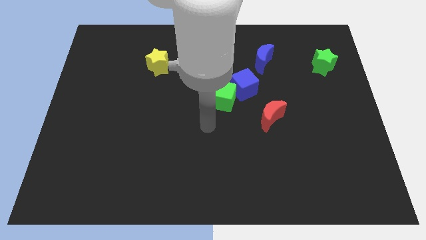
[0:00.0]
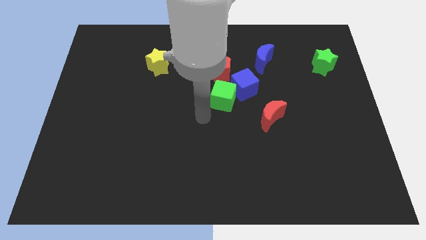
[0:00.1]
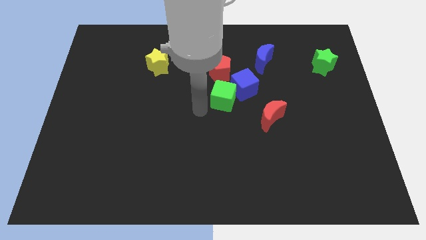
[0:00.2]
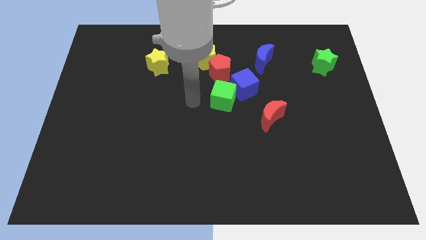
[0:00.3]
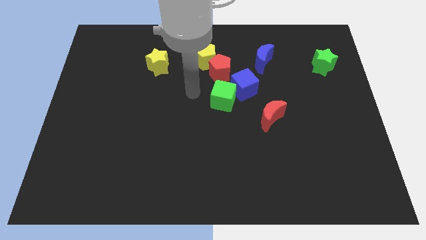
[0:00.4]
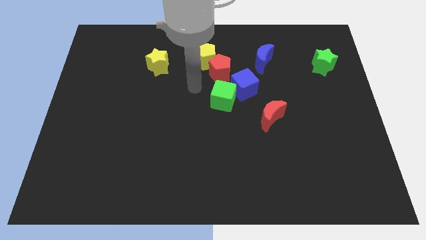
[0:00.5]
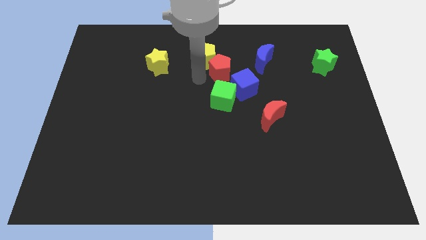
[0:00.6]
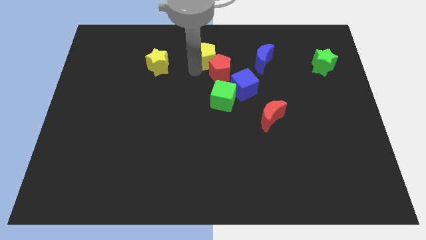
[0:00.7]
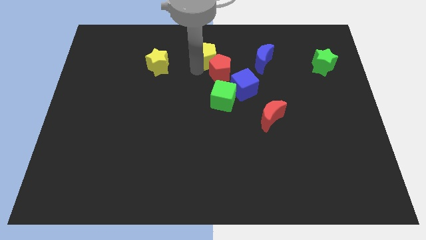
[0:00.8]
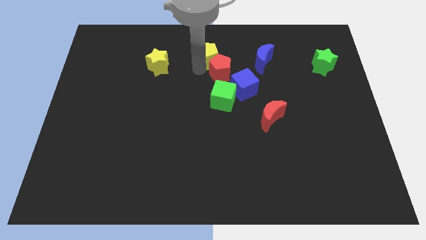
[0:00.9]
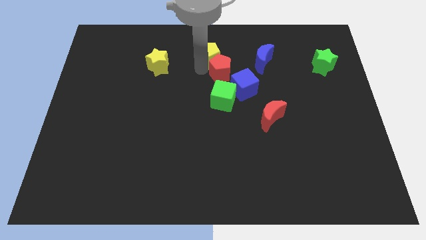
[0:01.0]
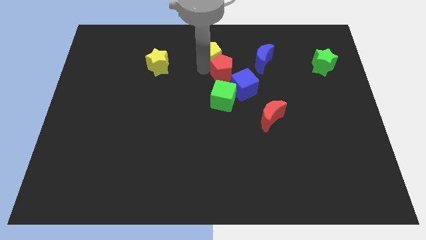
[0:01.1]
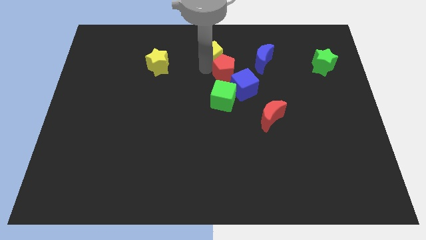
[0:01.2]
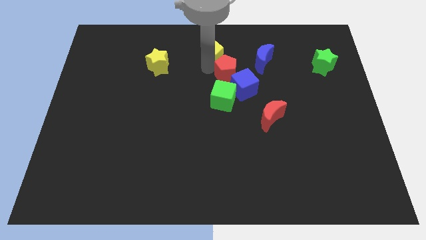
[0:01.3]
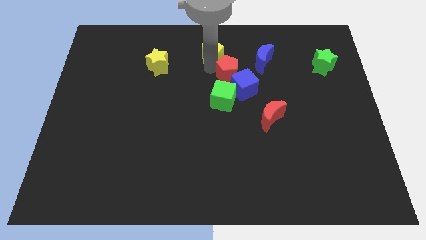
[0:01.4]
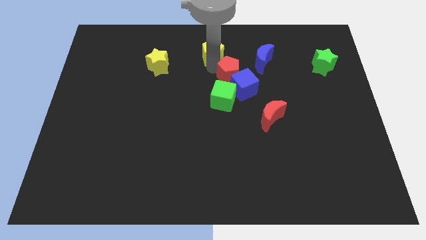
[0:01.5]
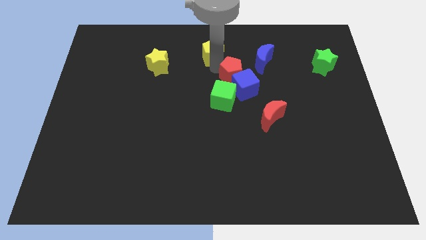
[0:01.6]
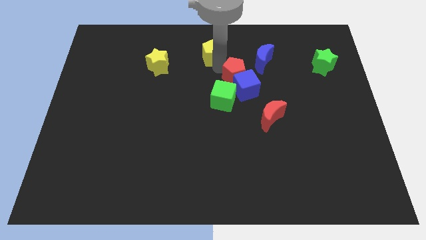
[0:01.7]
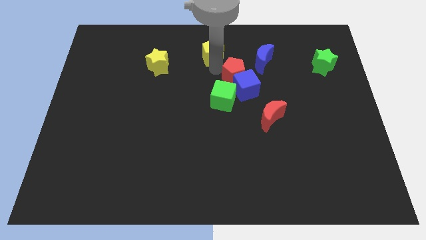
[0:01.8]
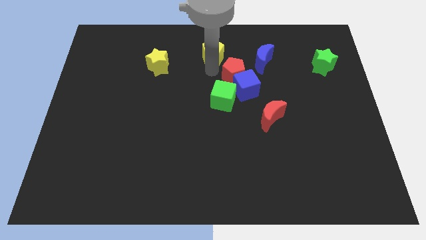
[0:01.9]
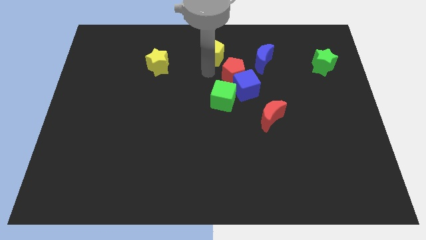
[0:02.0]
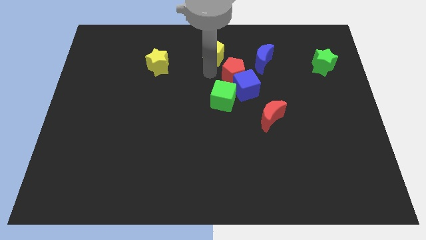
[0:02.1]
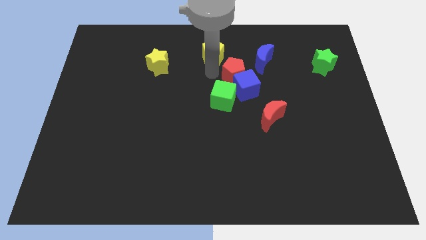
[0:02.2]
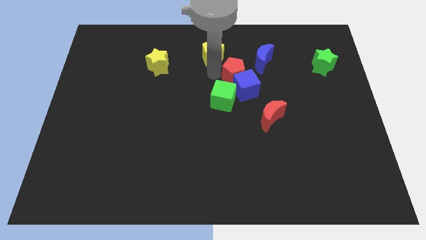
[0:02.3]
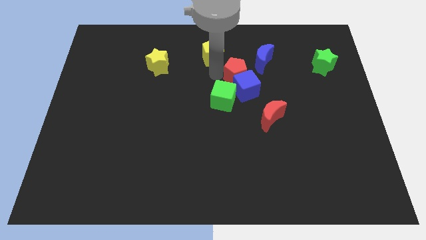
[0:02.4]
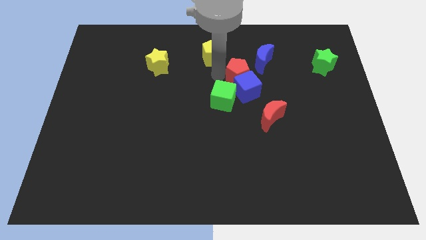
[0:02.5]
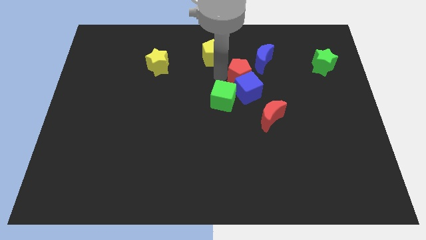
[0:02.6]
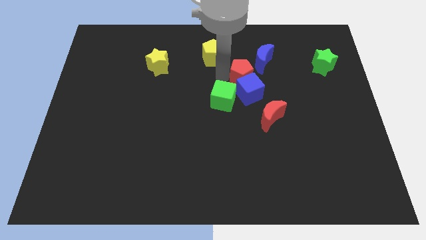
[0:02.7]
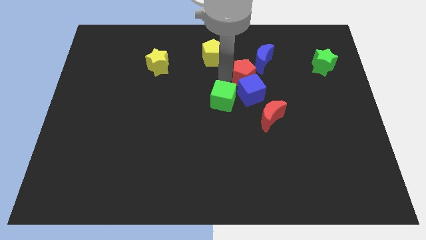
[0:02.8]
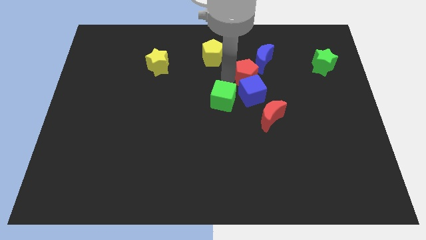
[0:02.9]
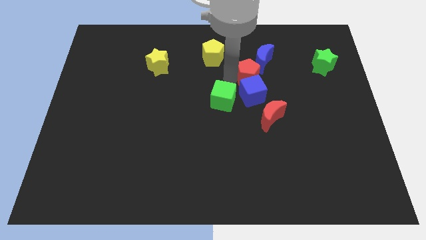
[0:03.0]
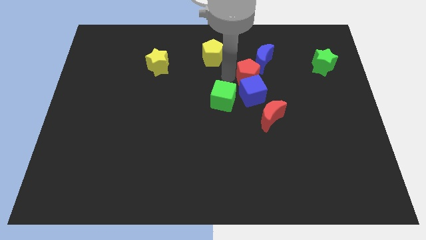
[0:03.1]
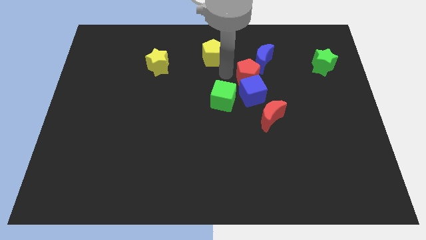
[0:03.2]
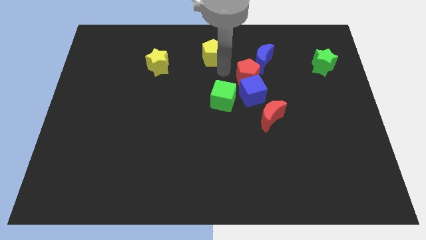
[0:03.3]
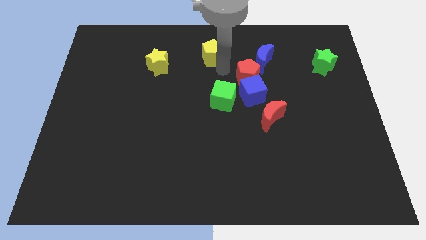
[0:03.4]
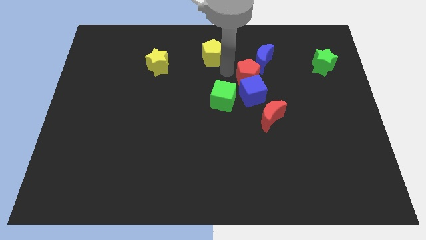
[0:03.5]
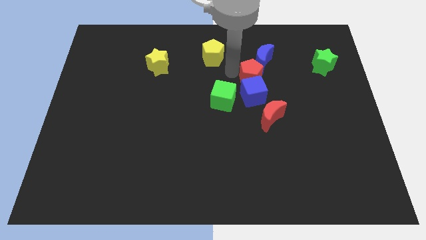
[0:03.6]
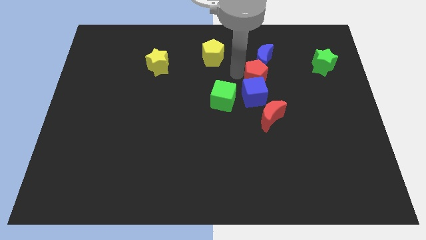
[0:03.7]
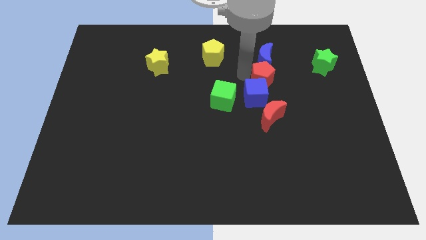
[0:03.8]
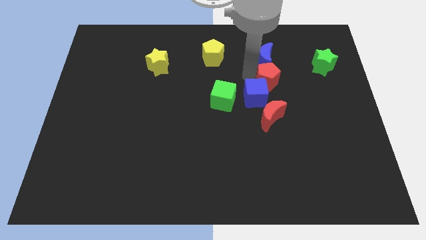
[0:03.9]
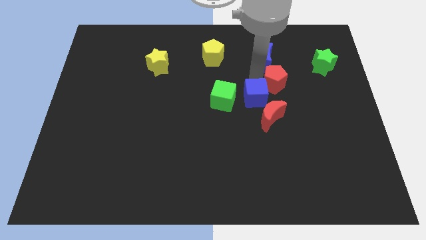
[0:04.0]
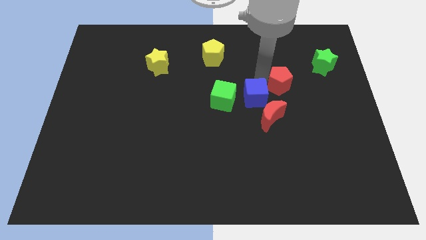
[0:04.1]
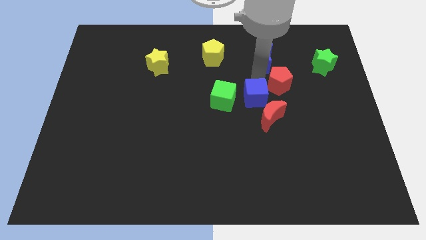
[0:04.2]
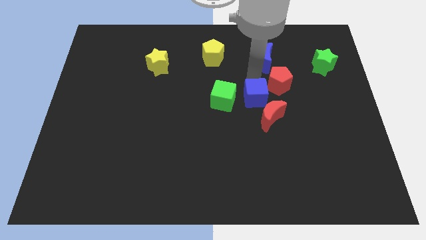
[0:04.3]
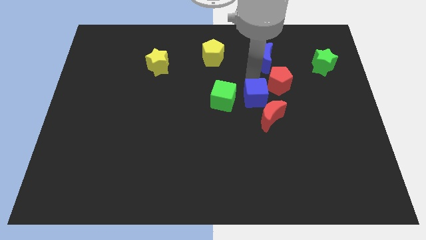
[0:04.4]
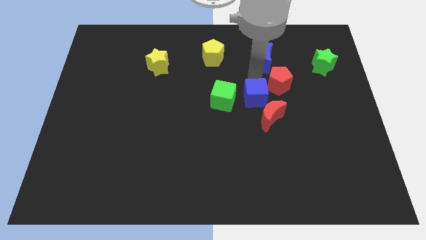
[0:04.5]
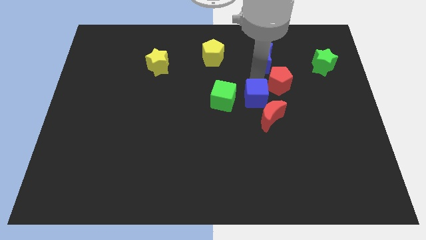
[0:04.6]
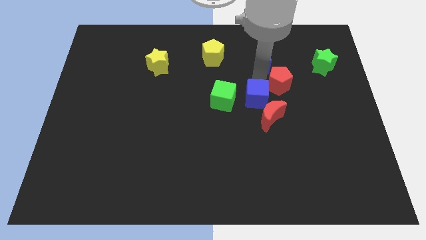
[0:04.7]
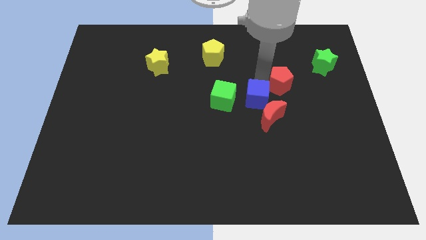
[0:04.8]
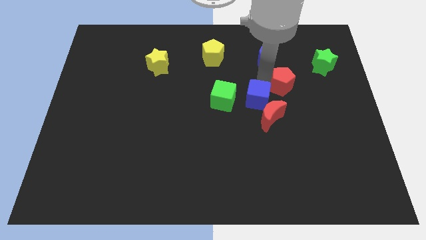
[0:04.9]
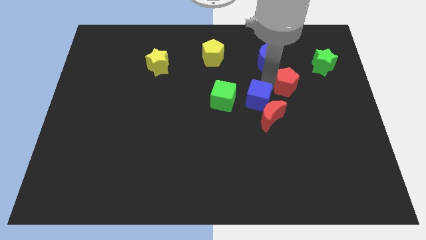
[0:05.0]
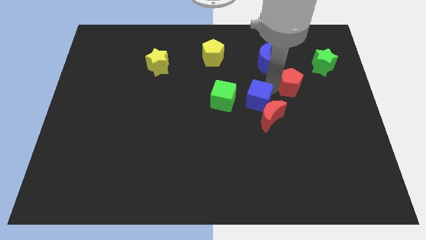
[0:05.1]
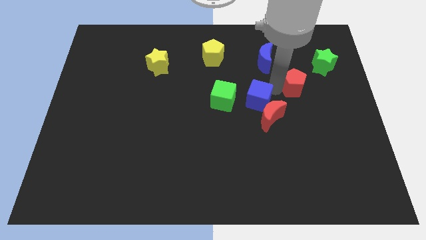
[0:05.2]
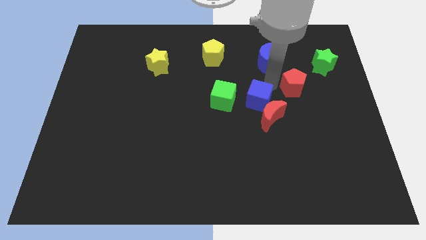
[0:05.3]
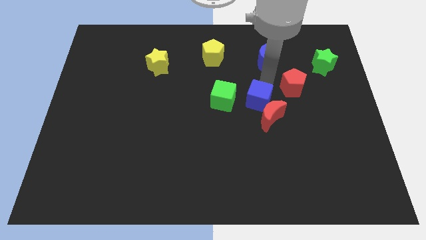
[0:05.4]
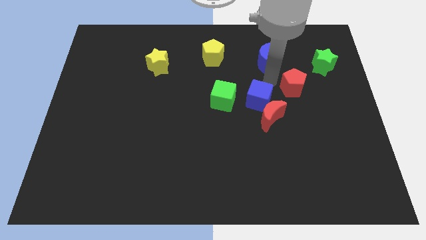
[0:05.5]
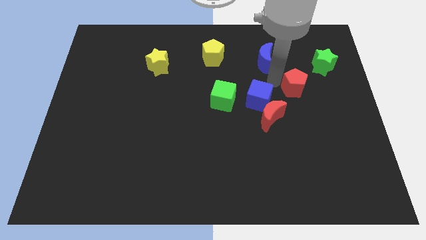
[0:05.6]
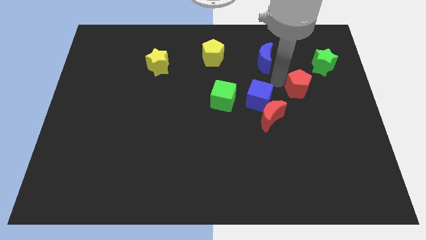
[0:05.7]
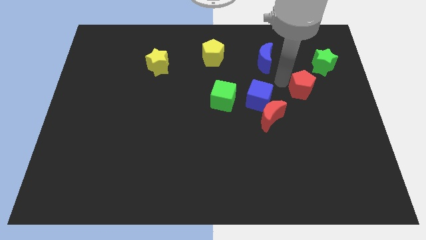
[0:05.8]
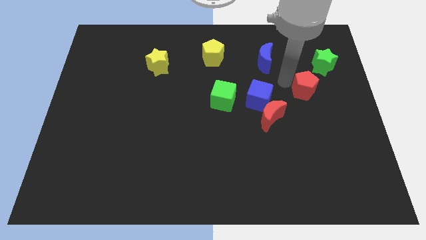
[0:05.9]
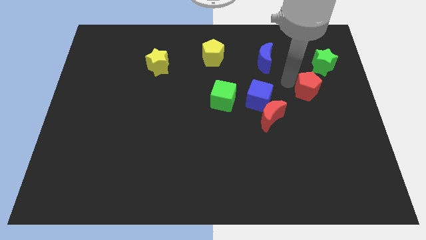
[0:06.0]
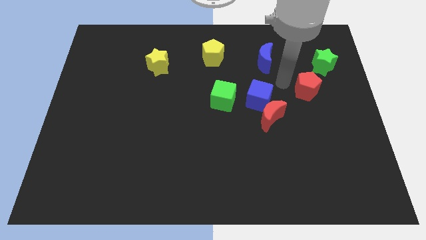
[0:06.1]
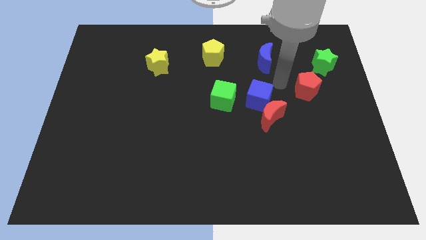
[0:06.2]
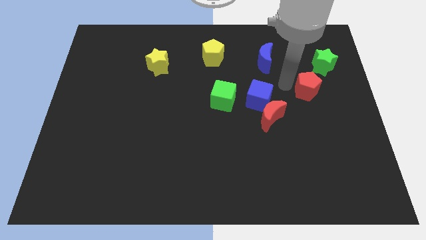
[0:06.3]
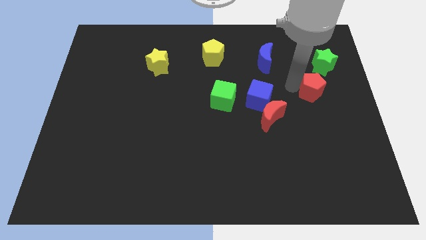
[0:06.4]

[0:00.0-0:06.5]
put the red pentagon to the bottom of the green star
